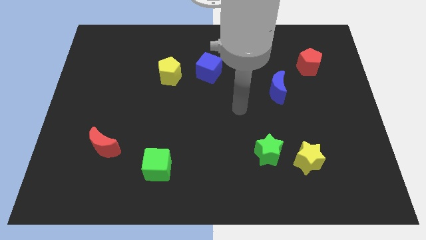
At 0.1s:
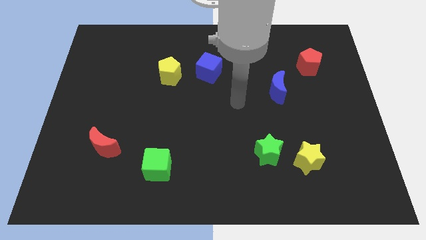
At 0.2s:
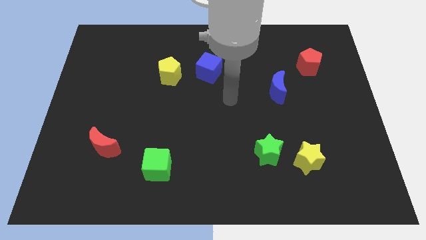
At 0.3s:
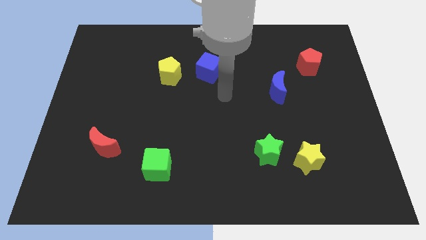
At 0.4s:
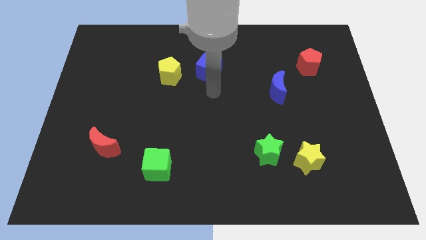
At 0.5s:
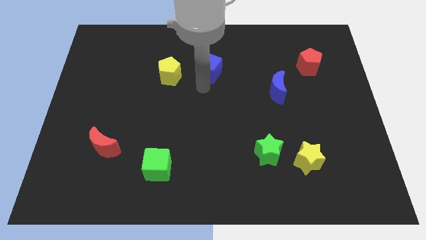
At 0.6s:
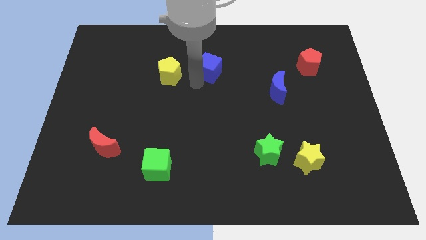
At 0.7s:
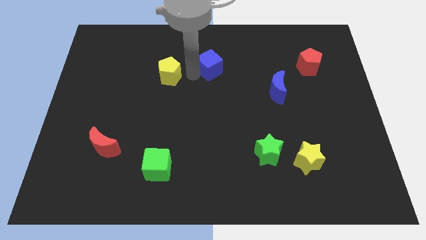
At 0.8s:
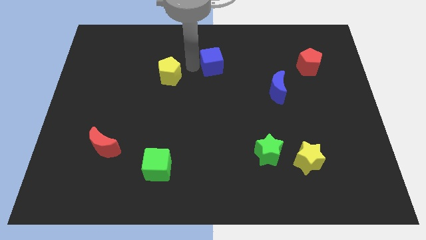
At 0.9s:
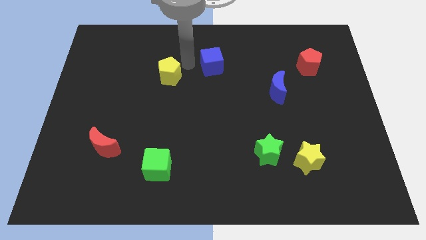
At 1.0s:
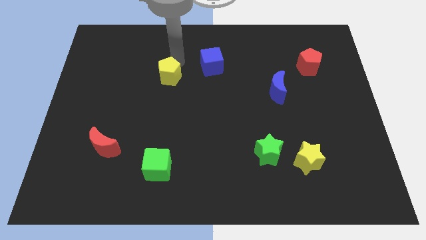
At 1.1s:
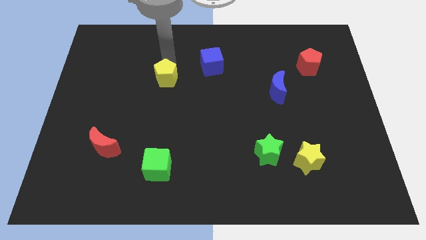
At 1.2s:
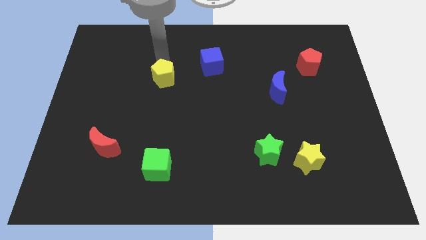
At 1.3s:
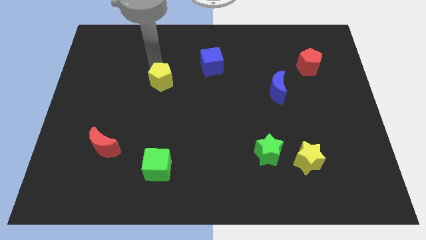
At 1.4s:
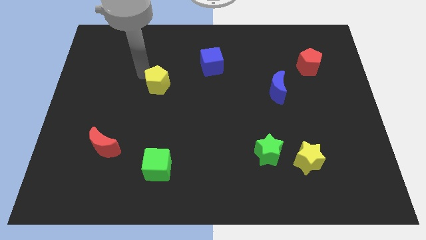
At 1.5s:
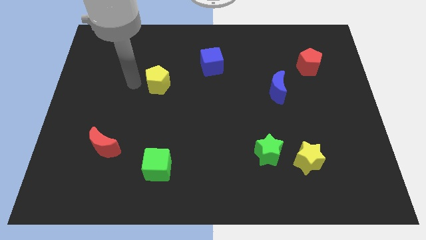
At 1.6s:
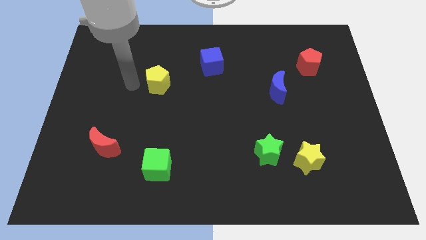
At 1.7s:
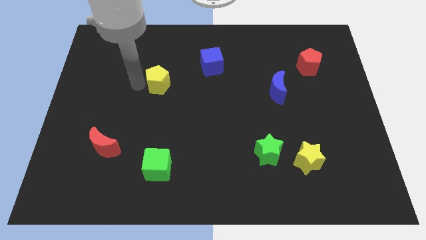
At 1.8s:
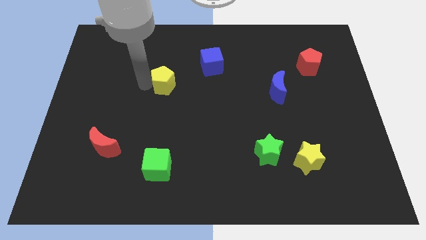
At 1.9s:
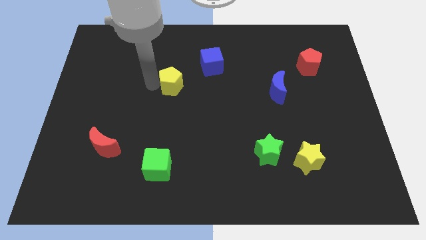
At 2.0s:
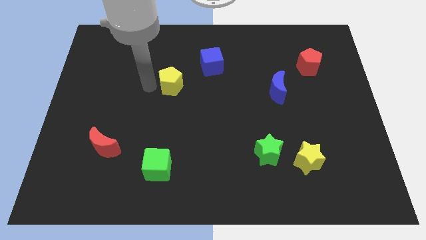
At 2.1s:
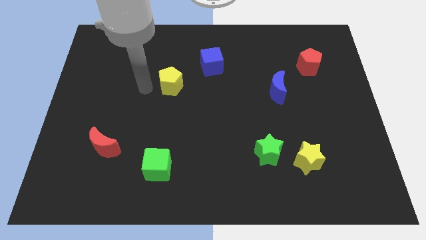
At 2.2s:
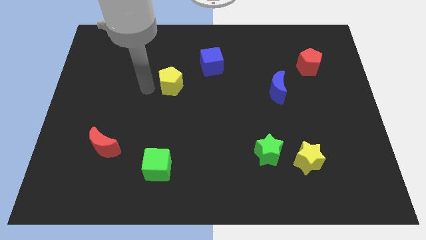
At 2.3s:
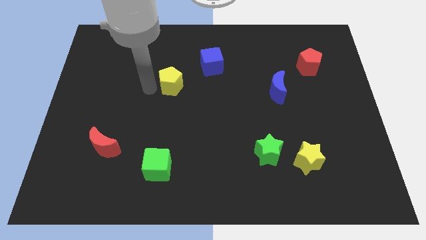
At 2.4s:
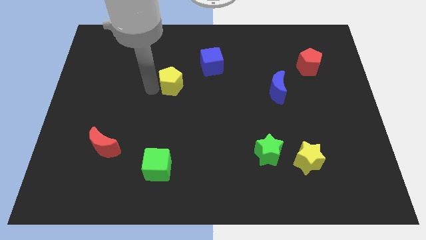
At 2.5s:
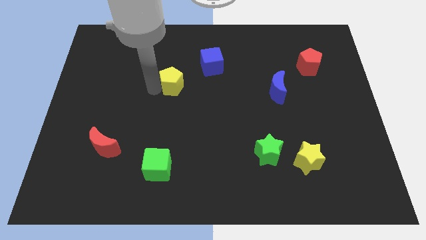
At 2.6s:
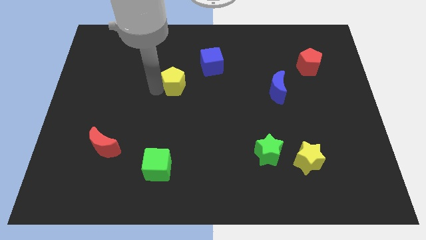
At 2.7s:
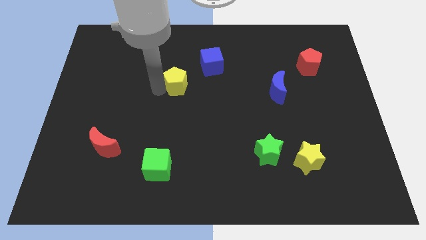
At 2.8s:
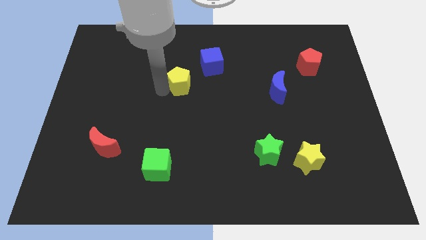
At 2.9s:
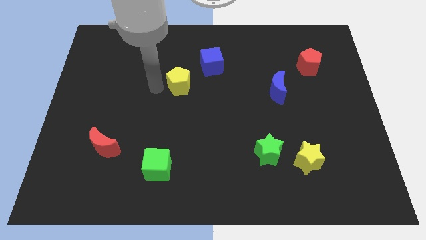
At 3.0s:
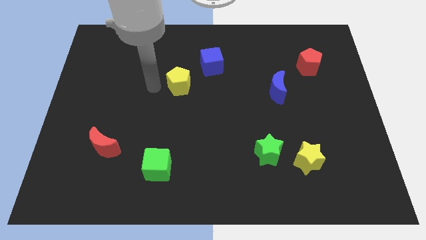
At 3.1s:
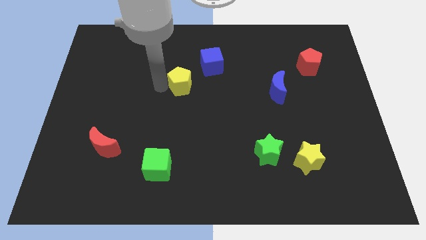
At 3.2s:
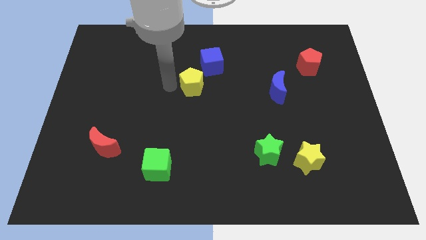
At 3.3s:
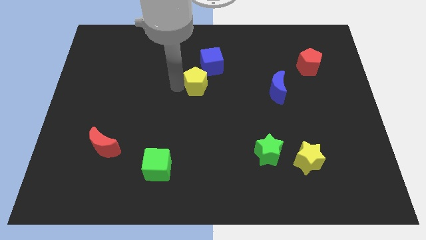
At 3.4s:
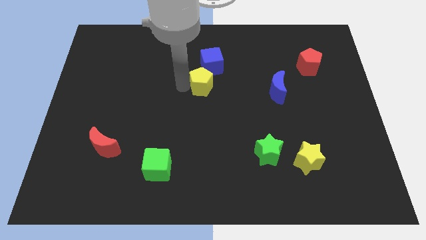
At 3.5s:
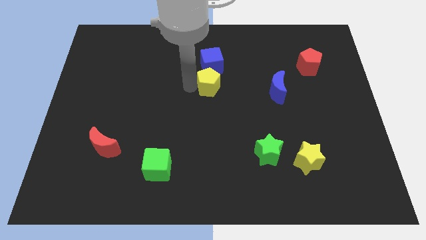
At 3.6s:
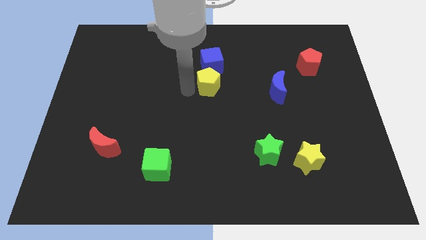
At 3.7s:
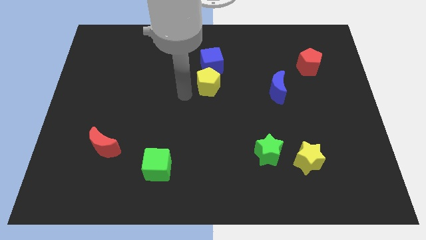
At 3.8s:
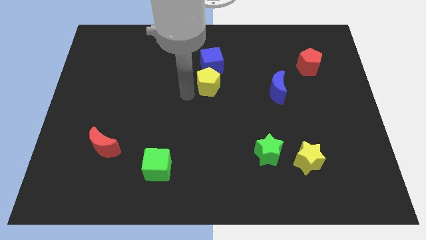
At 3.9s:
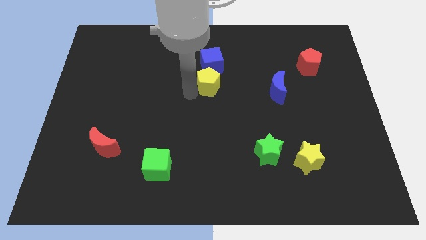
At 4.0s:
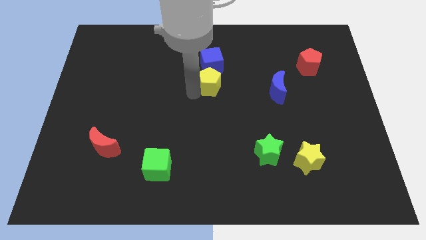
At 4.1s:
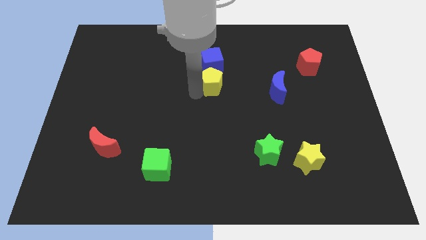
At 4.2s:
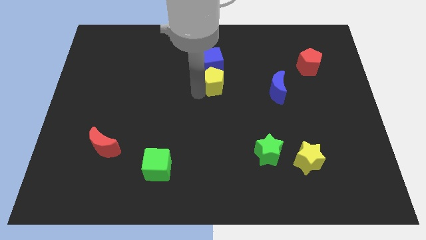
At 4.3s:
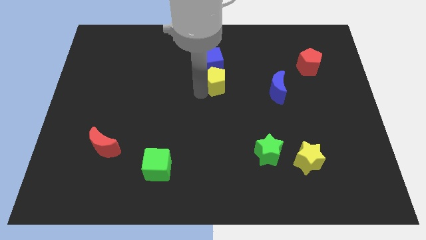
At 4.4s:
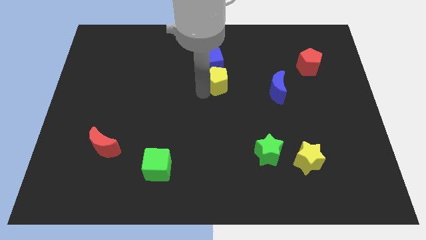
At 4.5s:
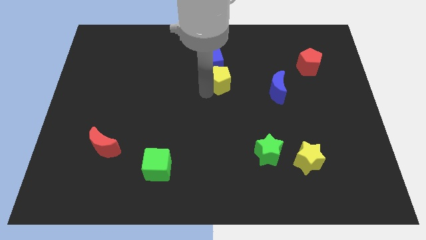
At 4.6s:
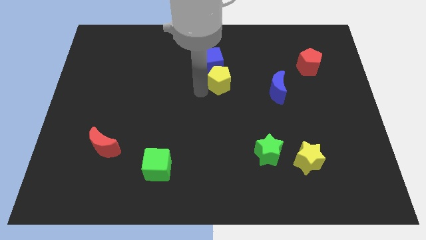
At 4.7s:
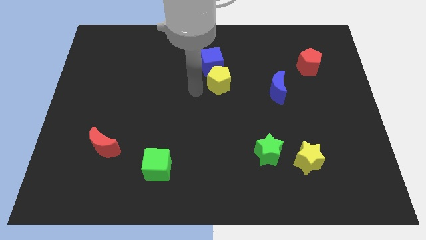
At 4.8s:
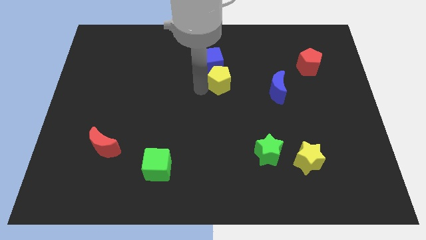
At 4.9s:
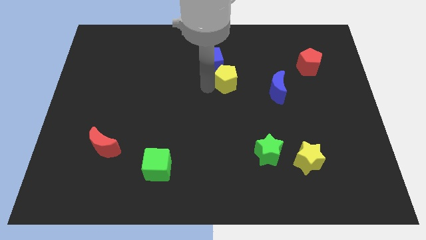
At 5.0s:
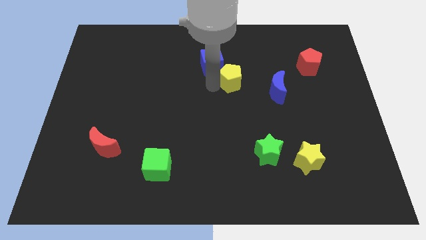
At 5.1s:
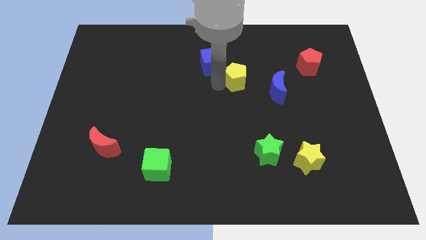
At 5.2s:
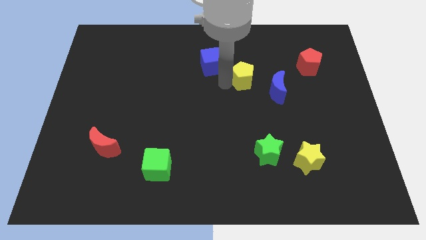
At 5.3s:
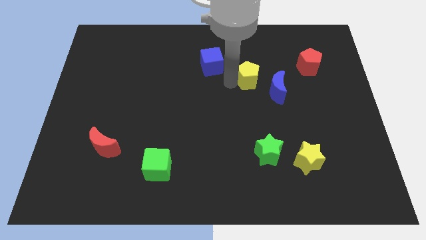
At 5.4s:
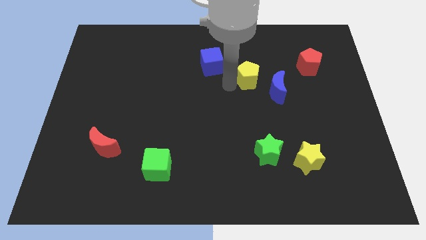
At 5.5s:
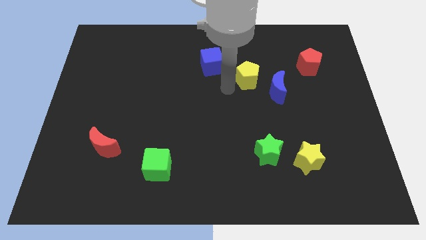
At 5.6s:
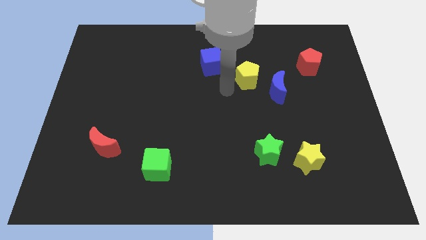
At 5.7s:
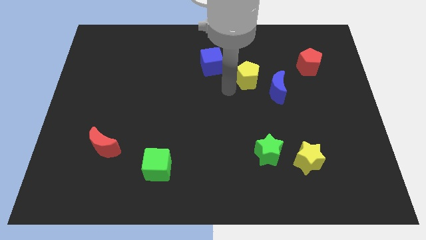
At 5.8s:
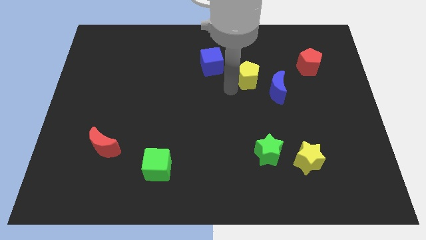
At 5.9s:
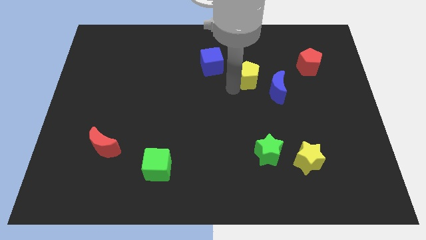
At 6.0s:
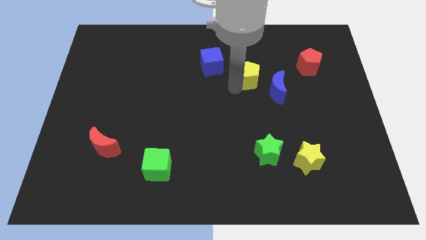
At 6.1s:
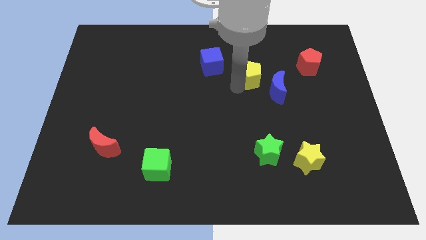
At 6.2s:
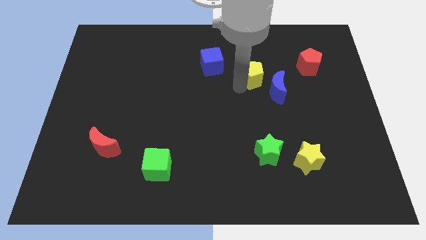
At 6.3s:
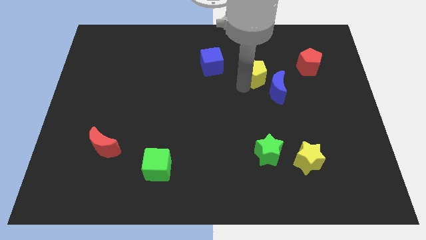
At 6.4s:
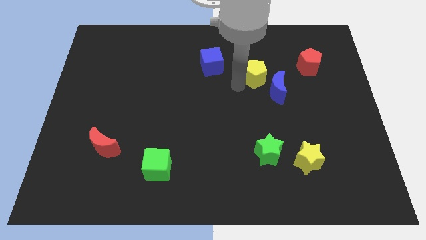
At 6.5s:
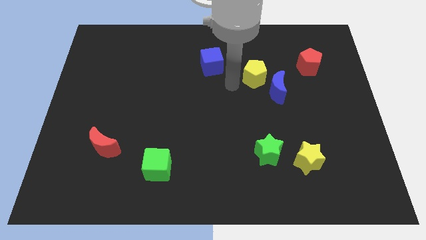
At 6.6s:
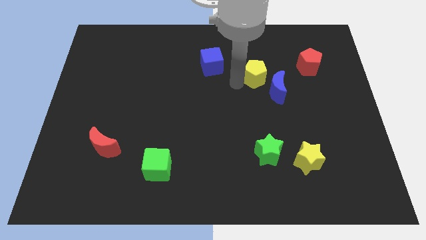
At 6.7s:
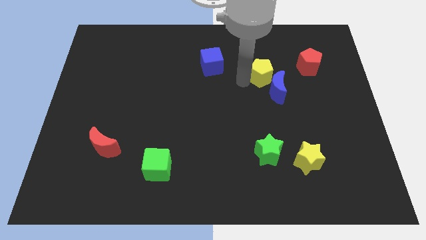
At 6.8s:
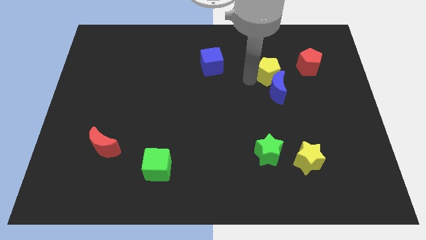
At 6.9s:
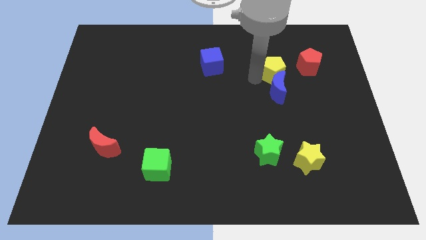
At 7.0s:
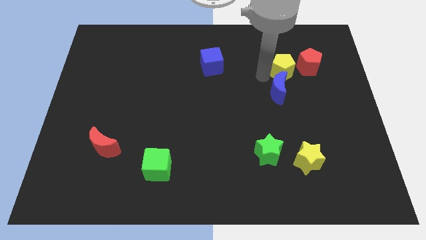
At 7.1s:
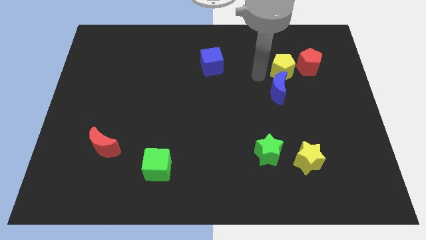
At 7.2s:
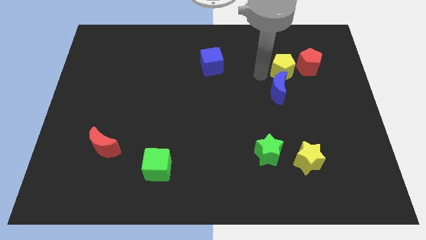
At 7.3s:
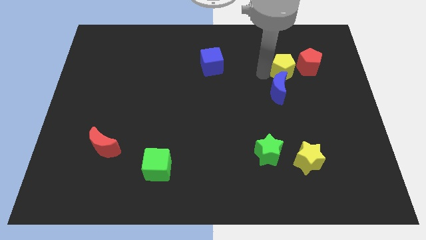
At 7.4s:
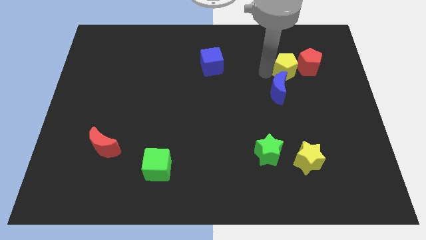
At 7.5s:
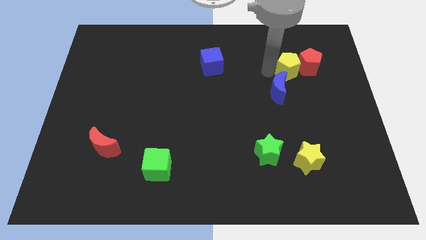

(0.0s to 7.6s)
move the yellow pentagon next to the red pentagon
